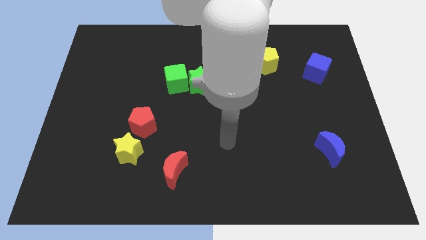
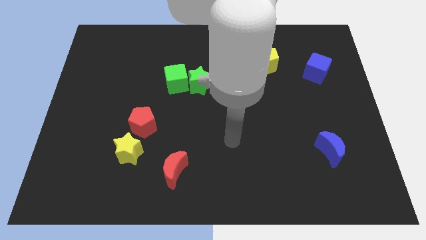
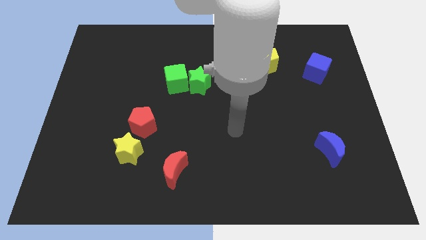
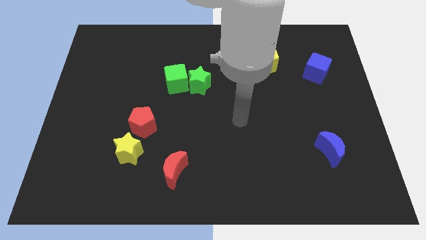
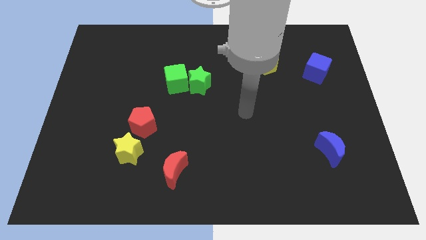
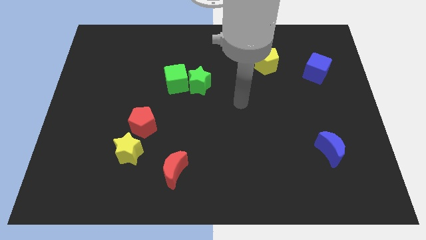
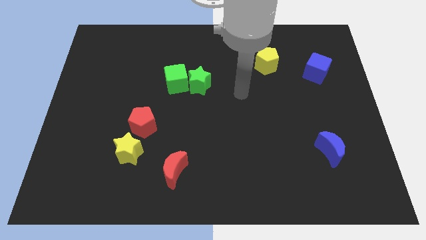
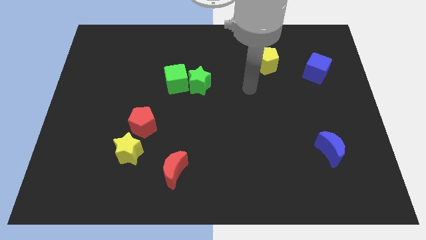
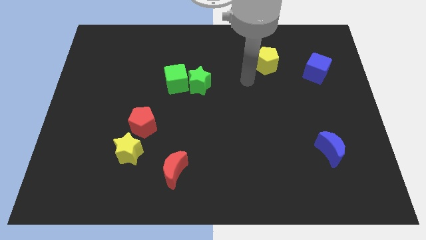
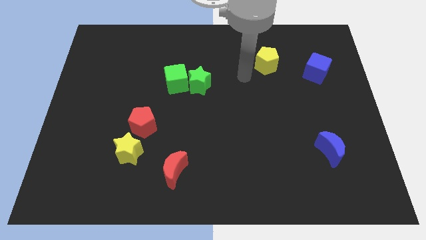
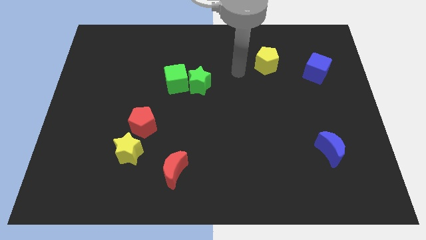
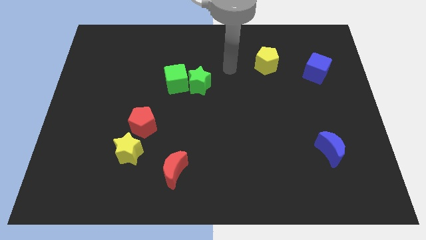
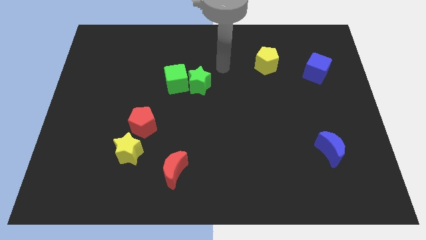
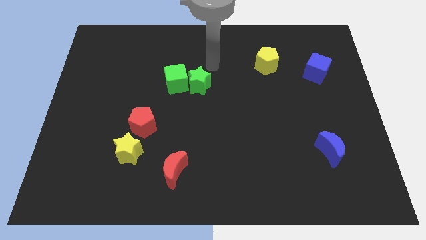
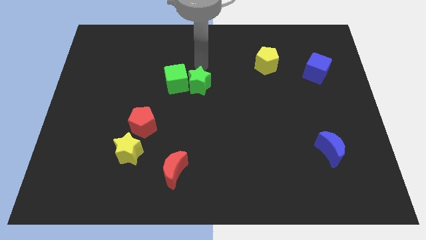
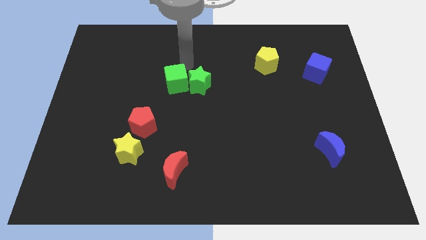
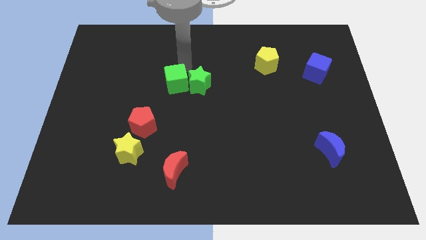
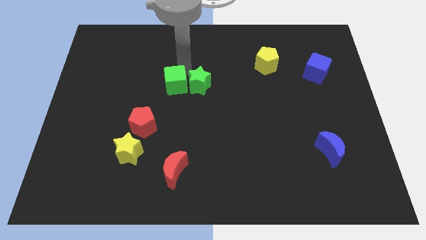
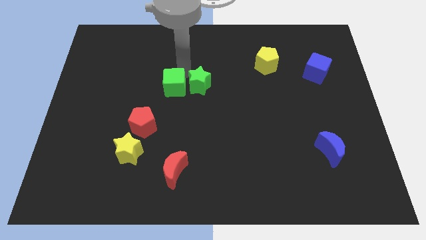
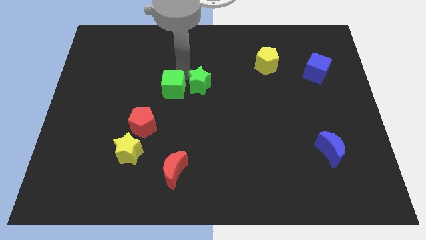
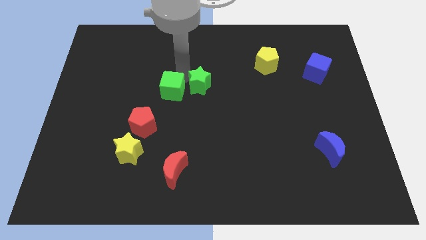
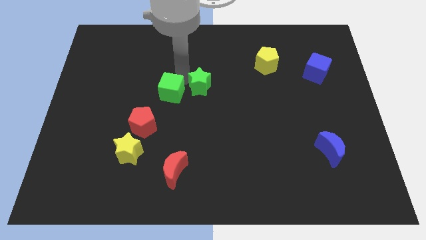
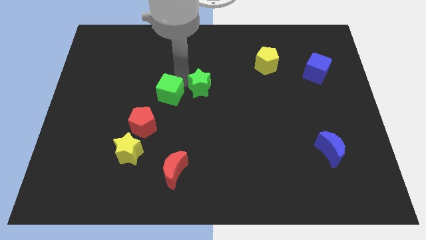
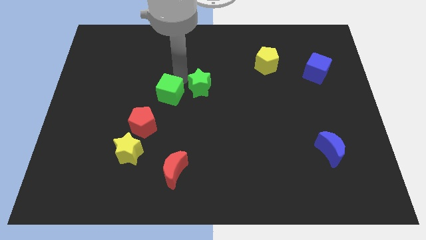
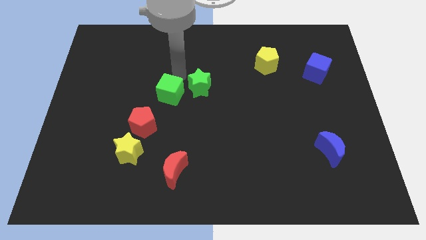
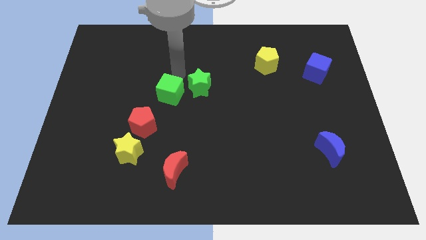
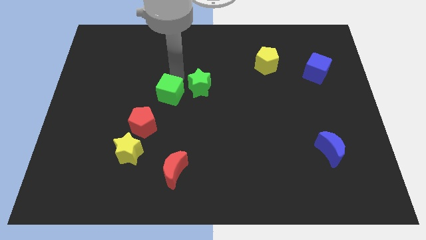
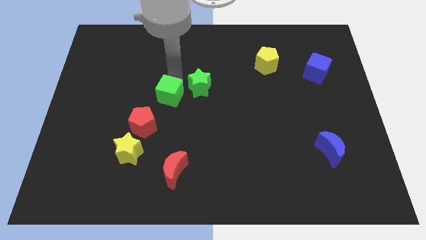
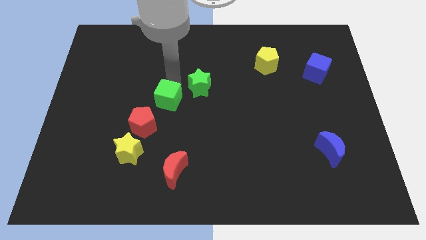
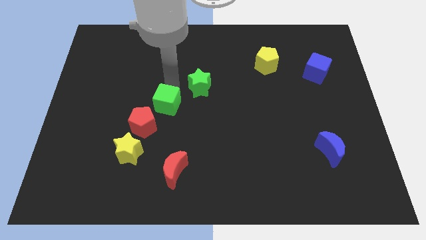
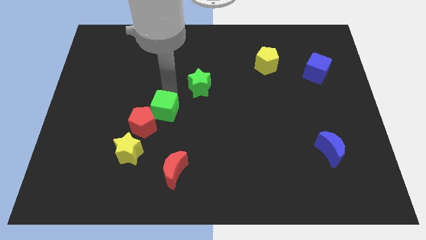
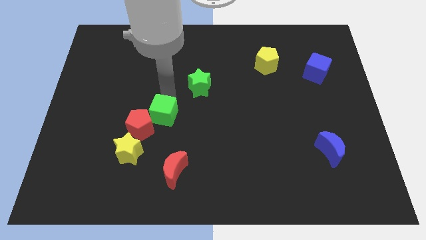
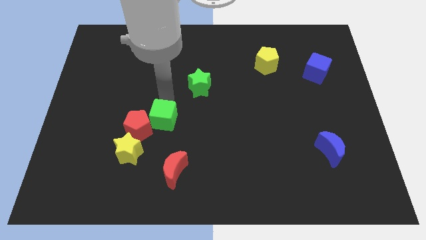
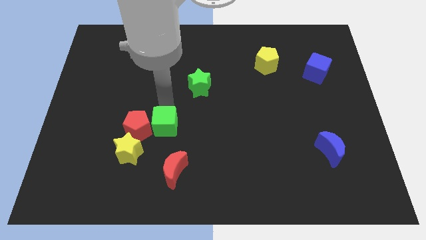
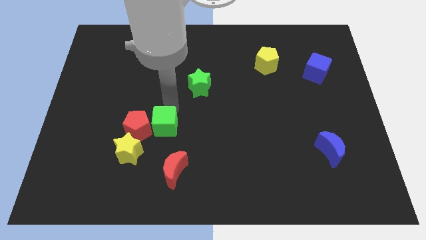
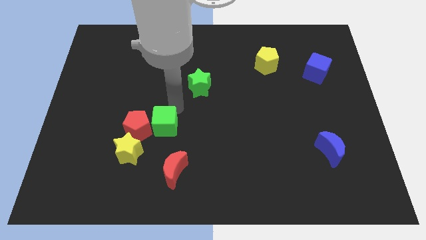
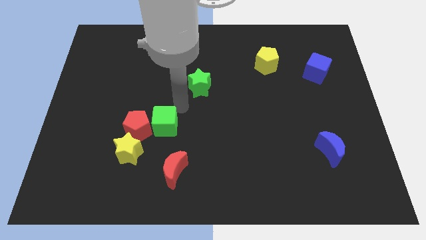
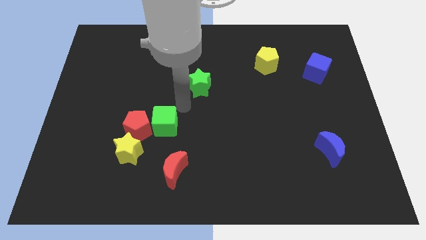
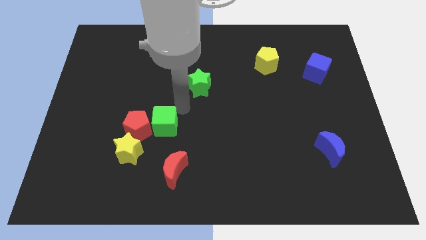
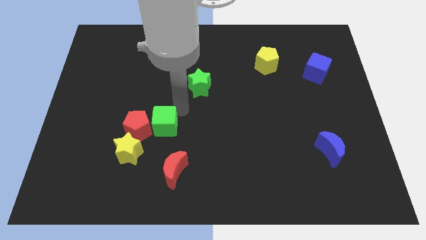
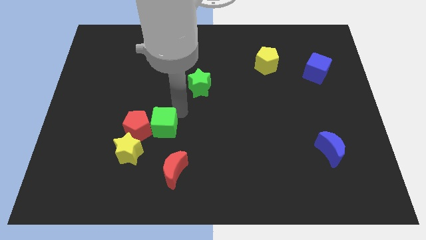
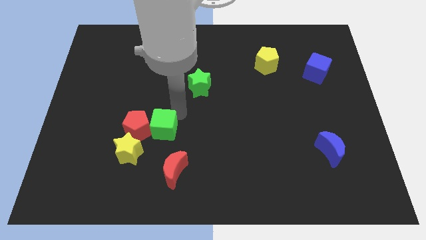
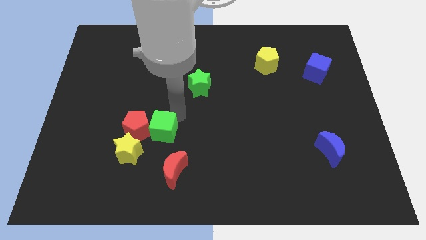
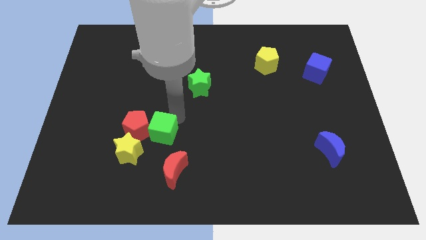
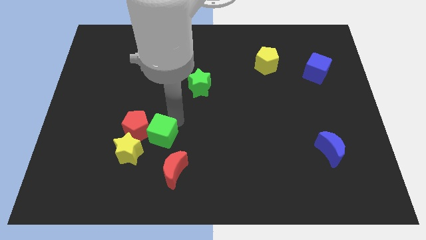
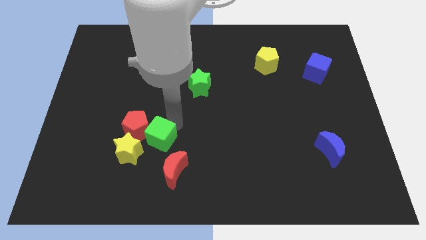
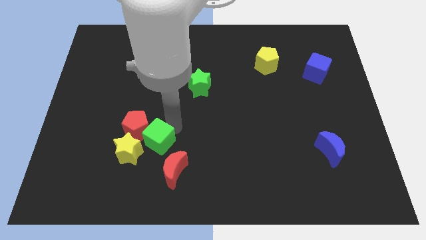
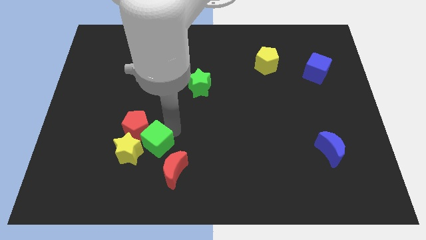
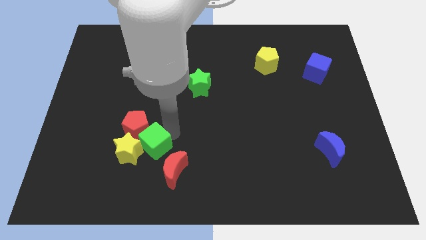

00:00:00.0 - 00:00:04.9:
slide the green cube to the yellow star

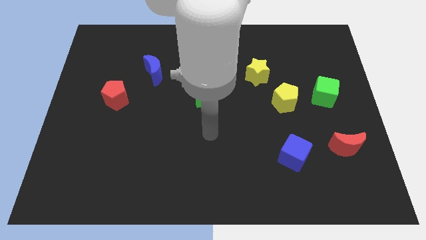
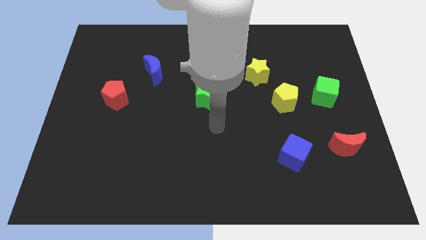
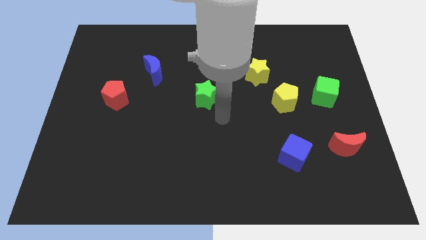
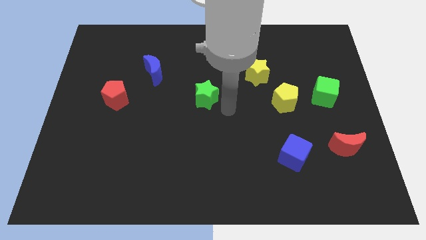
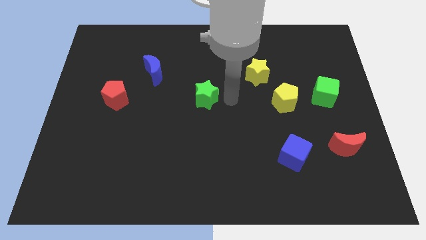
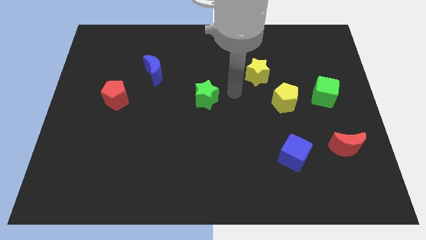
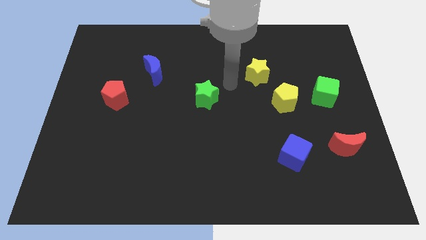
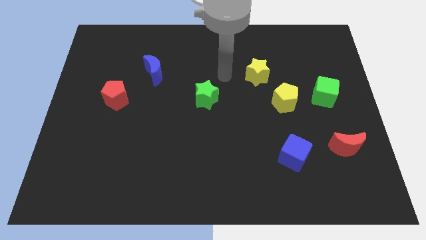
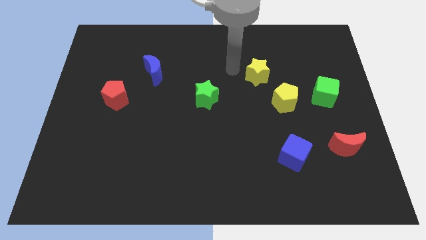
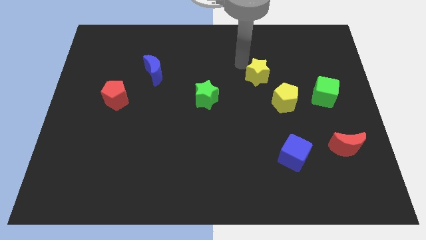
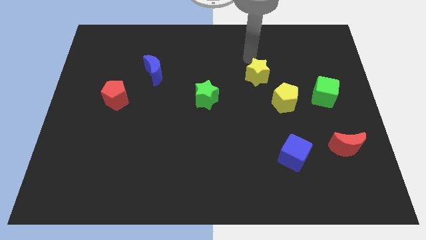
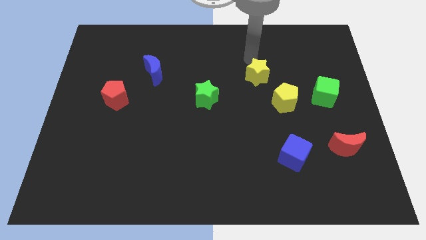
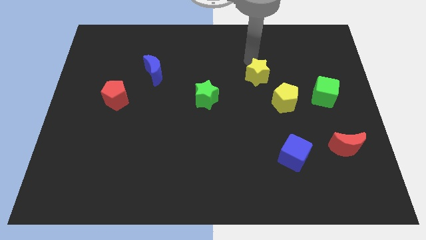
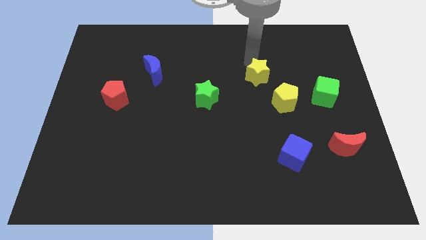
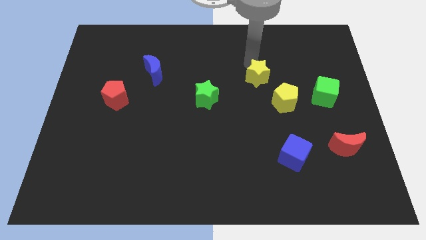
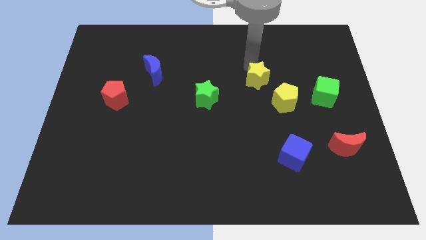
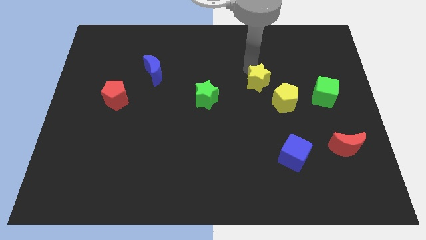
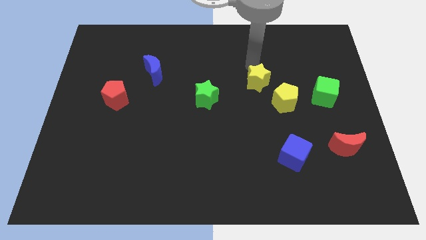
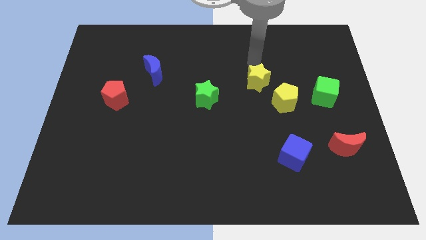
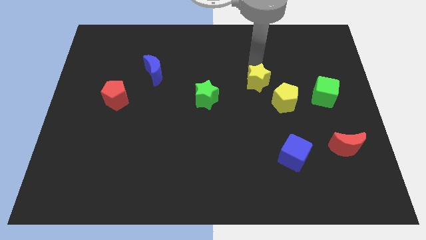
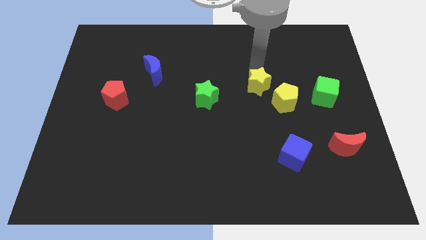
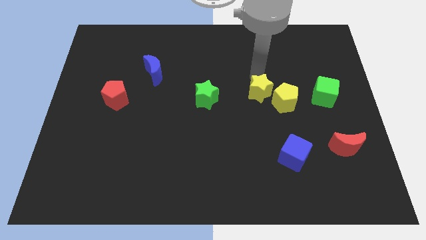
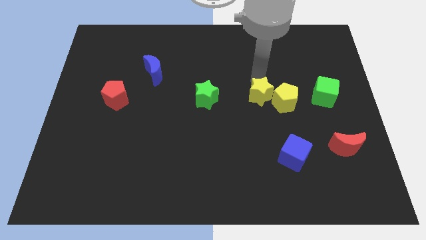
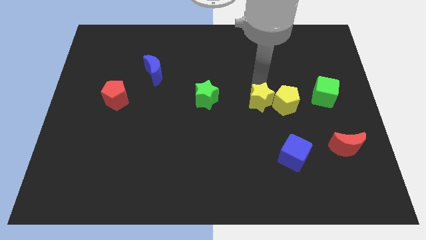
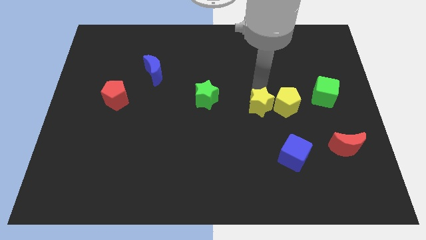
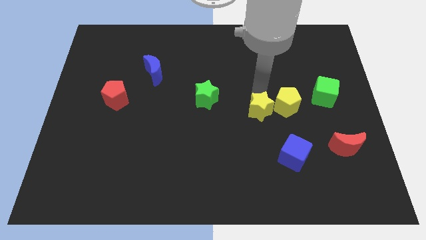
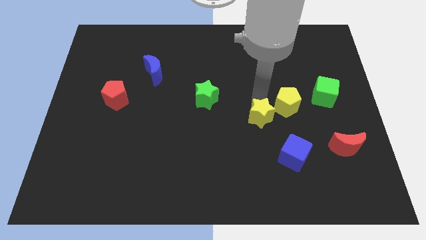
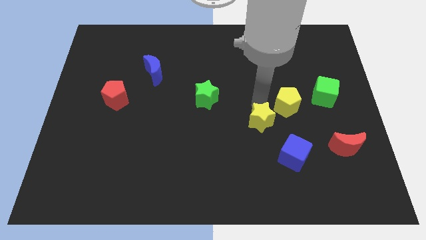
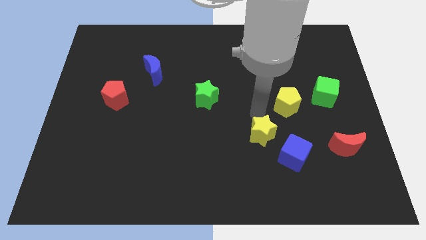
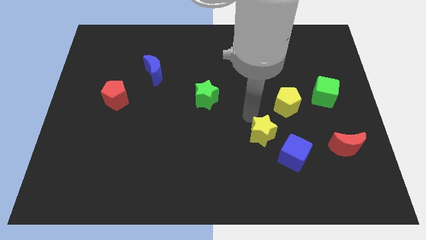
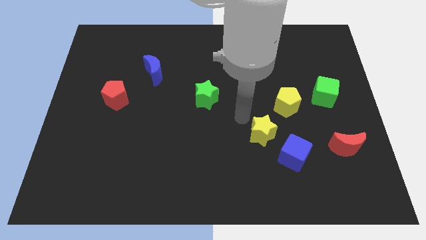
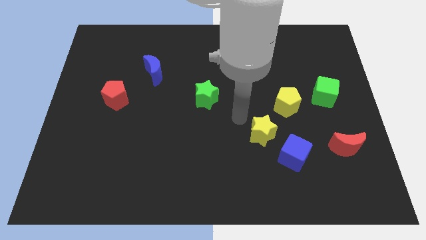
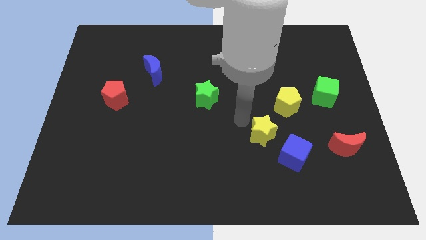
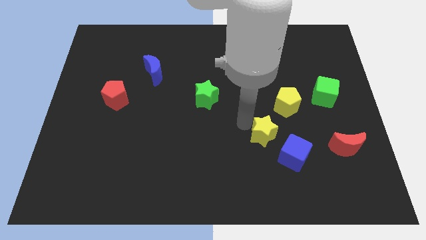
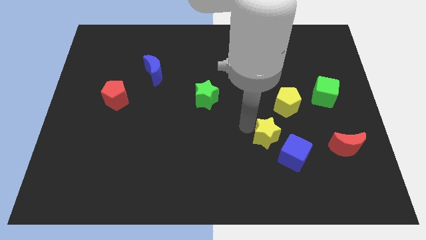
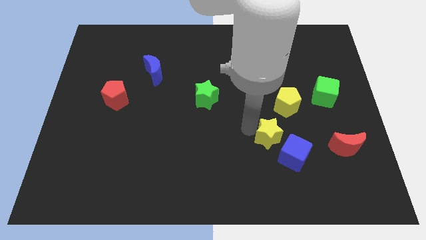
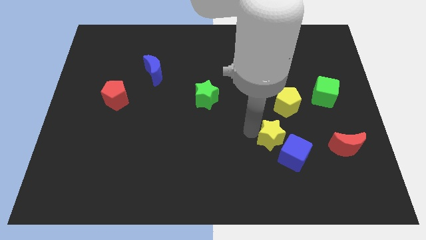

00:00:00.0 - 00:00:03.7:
push the yellow star next to the blue cube
